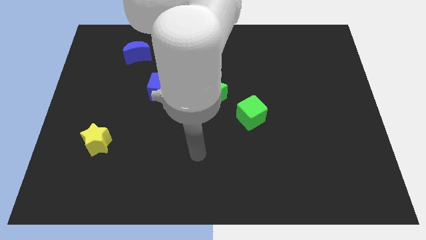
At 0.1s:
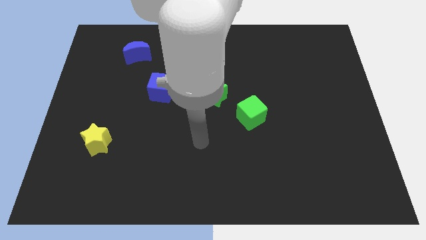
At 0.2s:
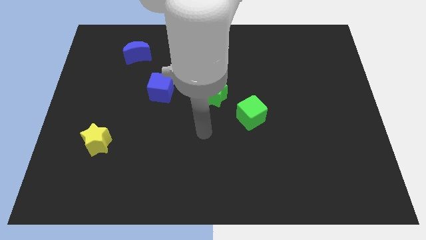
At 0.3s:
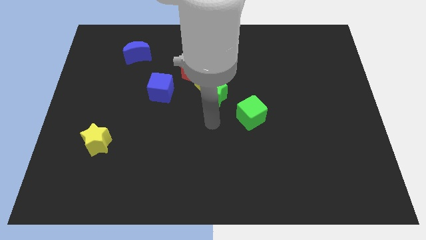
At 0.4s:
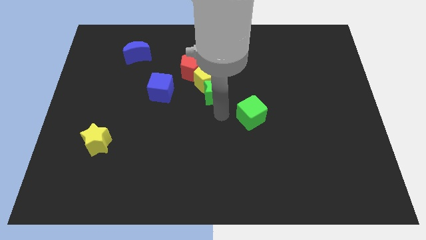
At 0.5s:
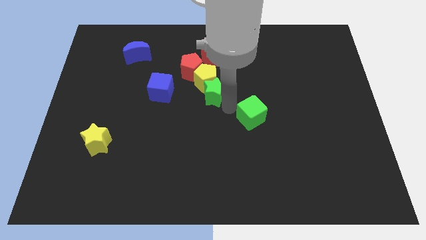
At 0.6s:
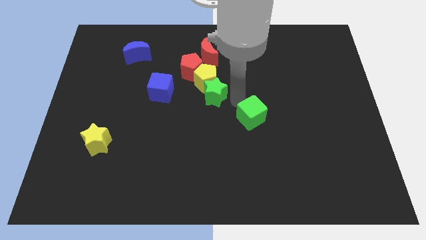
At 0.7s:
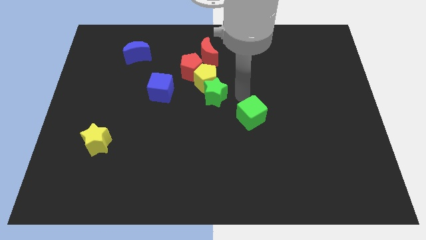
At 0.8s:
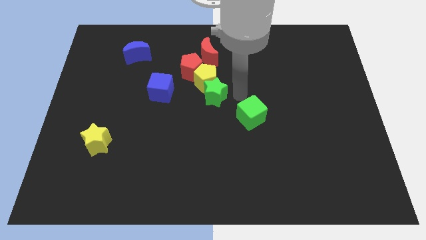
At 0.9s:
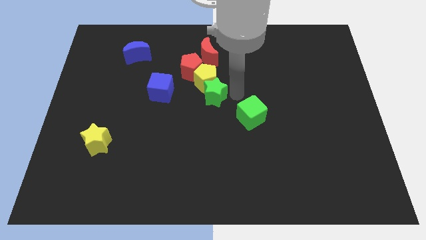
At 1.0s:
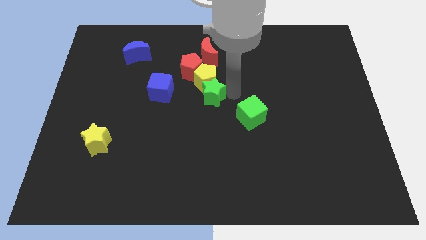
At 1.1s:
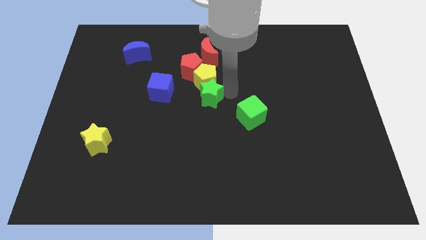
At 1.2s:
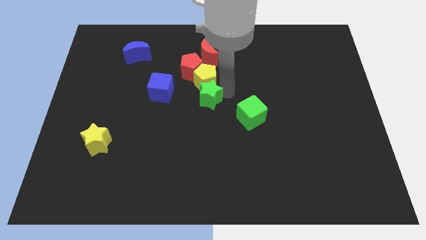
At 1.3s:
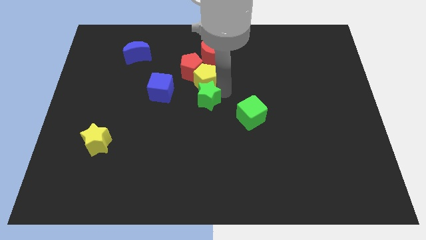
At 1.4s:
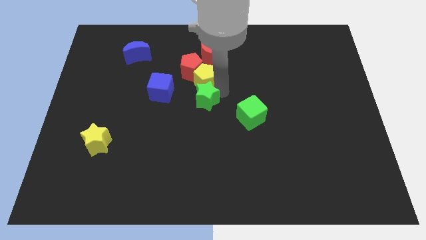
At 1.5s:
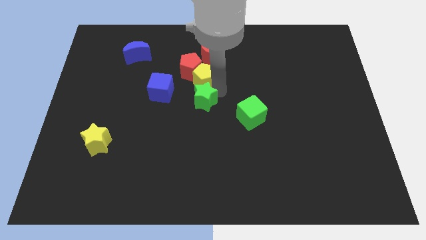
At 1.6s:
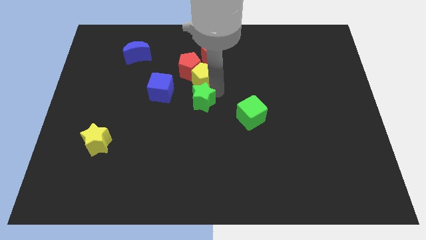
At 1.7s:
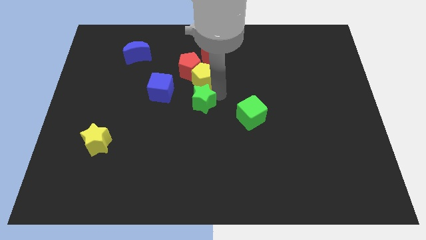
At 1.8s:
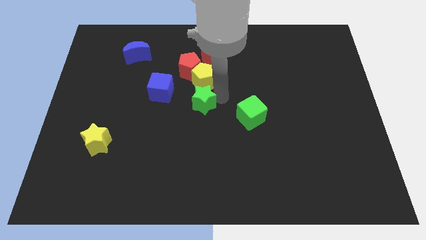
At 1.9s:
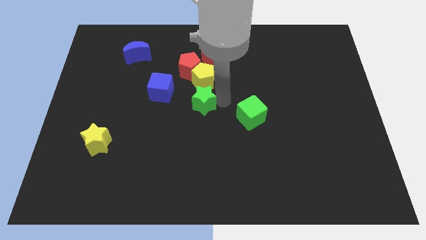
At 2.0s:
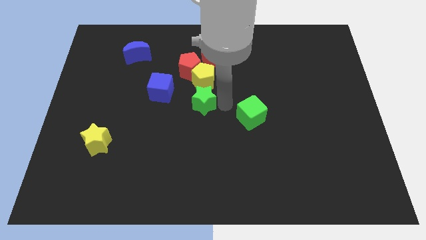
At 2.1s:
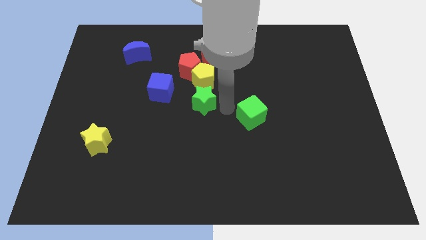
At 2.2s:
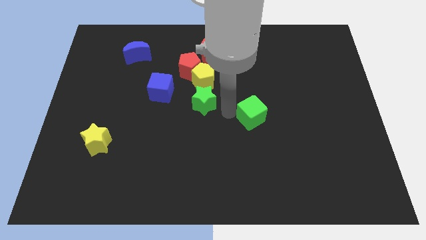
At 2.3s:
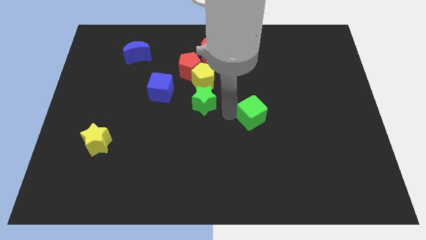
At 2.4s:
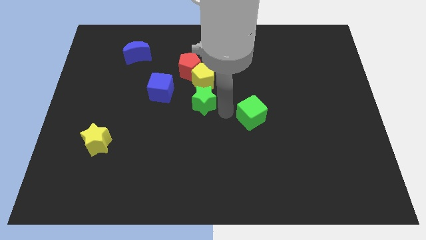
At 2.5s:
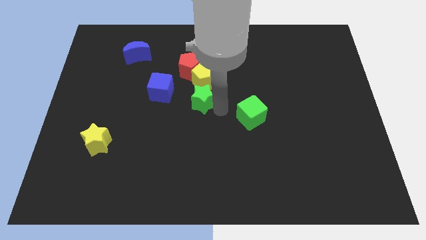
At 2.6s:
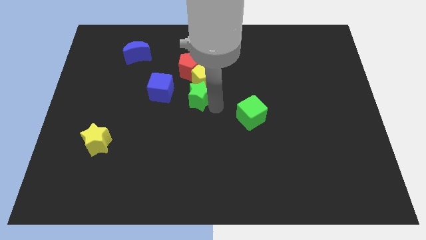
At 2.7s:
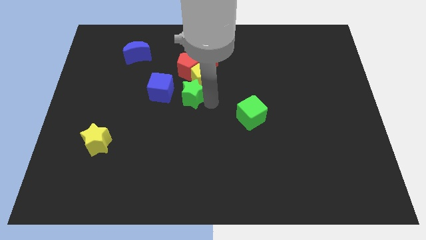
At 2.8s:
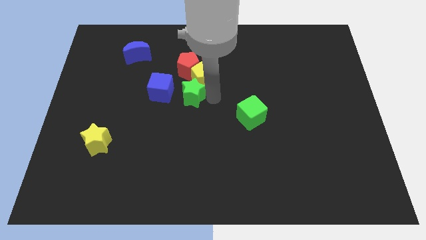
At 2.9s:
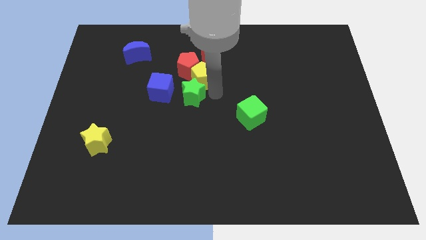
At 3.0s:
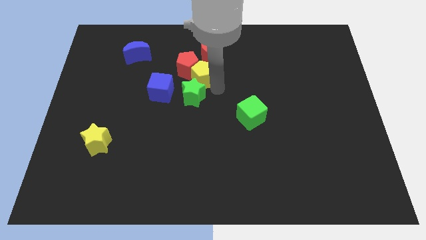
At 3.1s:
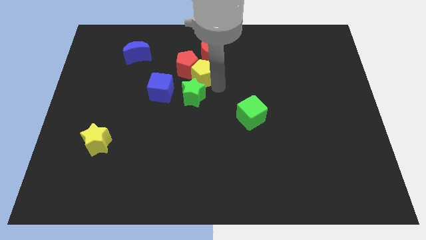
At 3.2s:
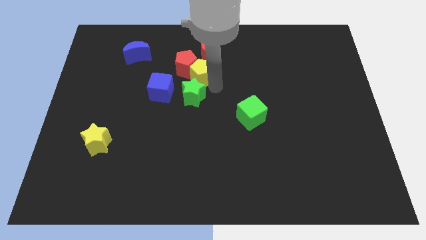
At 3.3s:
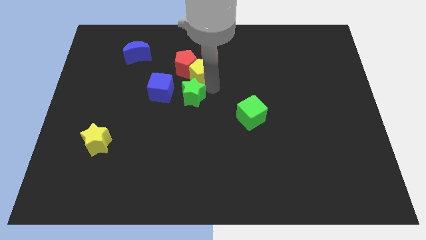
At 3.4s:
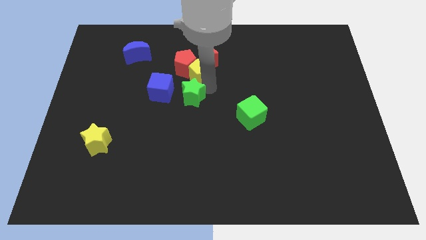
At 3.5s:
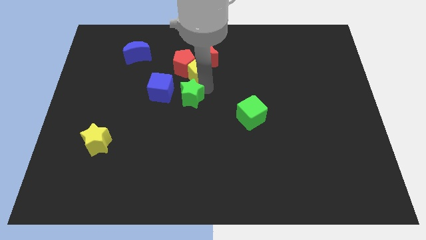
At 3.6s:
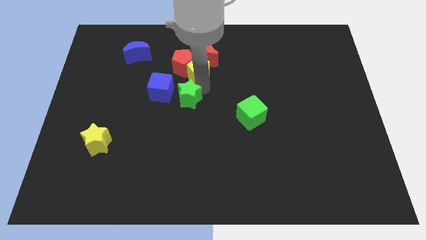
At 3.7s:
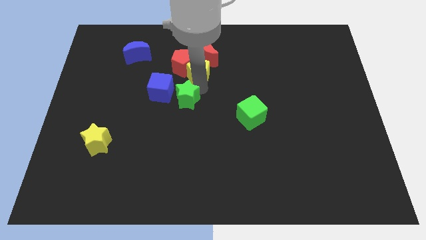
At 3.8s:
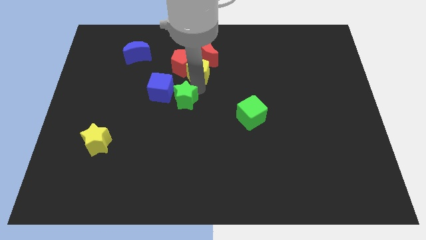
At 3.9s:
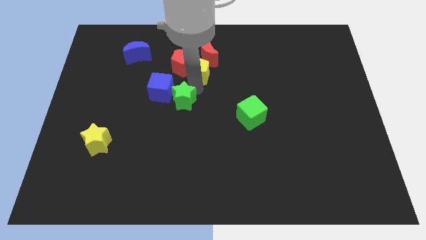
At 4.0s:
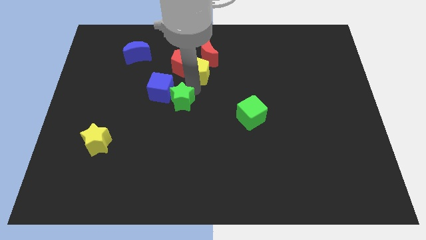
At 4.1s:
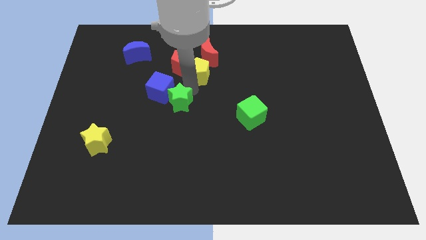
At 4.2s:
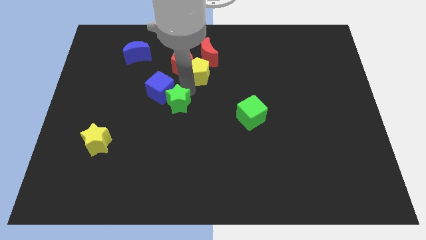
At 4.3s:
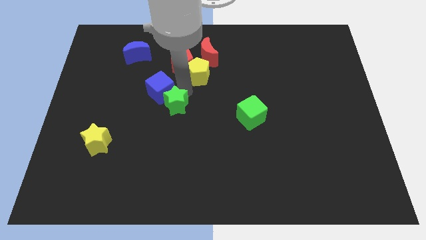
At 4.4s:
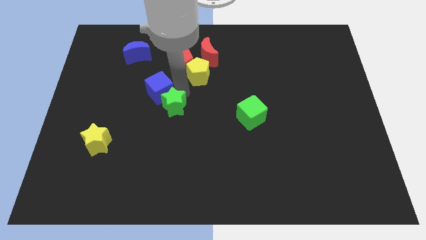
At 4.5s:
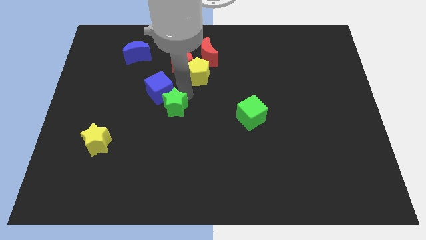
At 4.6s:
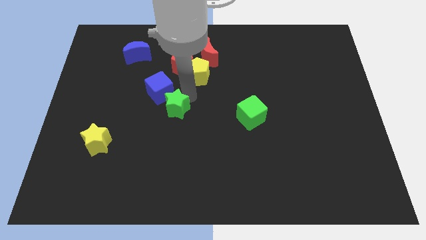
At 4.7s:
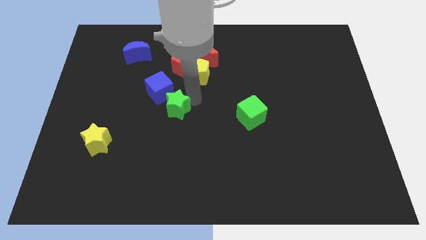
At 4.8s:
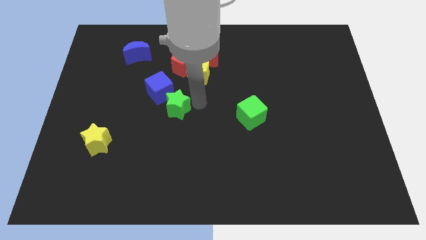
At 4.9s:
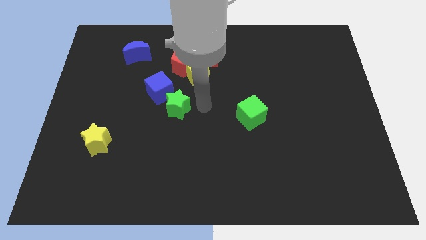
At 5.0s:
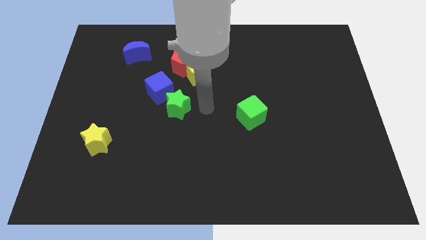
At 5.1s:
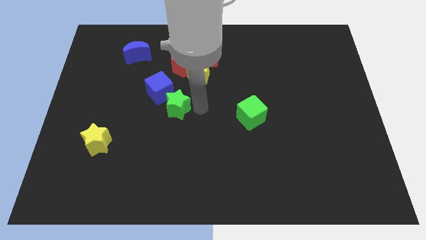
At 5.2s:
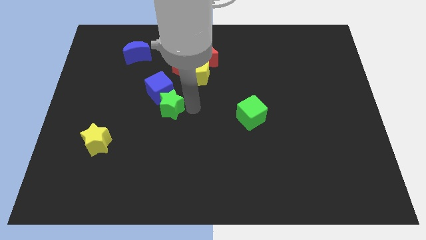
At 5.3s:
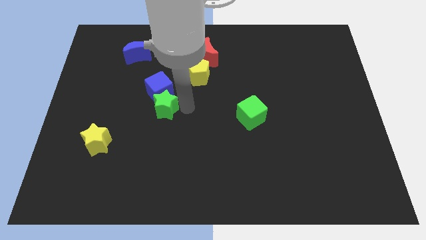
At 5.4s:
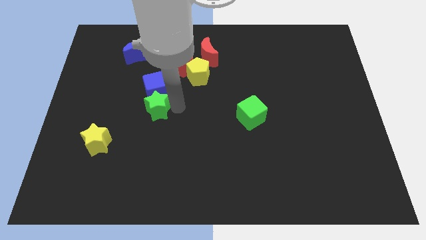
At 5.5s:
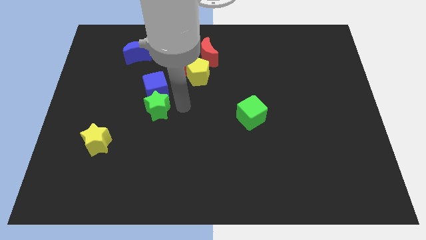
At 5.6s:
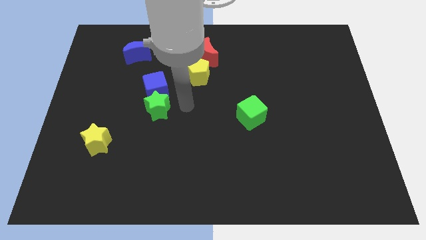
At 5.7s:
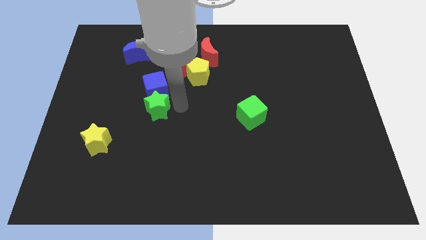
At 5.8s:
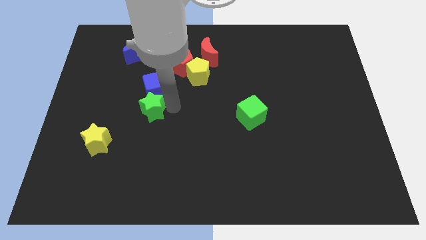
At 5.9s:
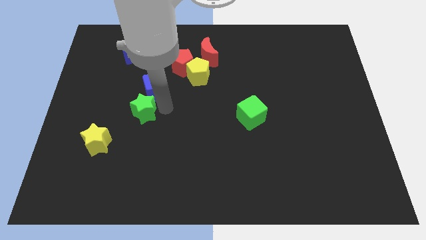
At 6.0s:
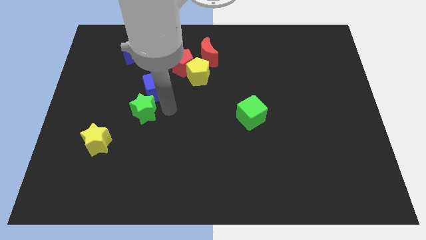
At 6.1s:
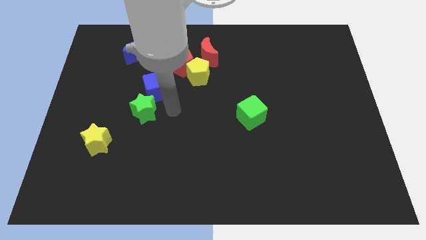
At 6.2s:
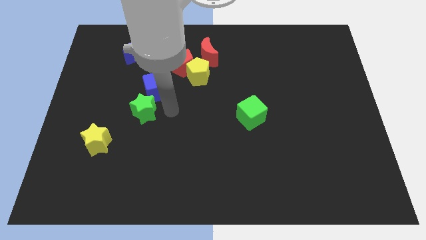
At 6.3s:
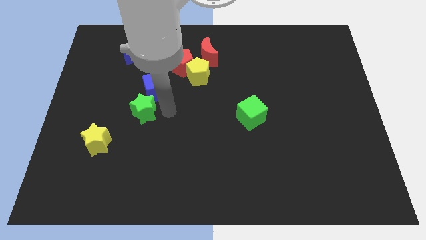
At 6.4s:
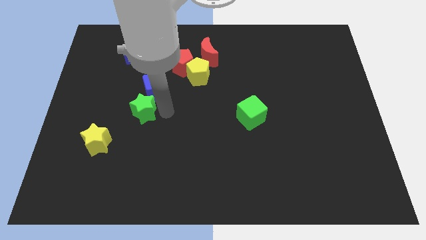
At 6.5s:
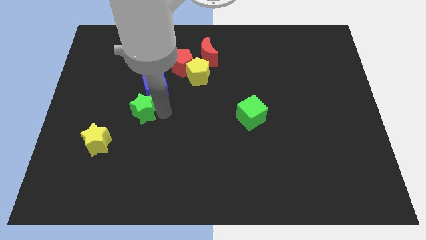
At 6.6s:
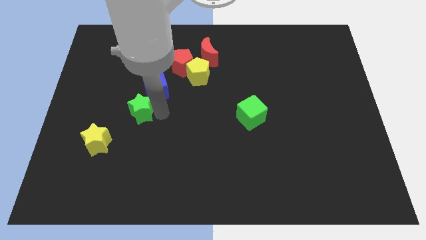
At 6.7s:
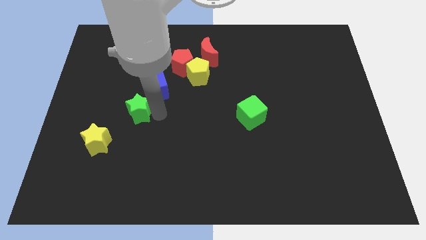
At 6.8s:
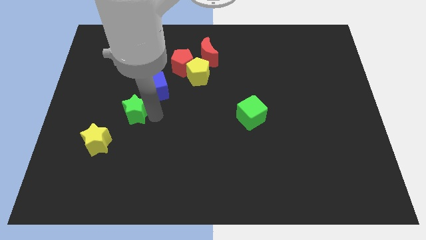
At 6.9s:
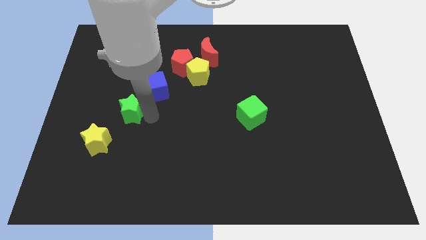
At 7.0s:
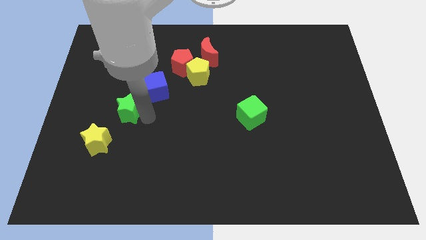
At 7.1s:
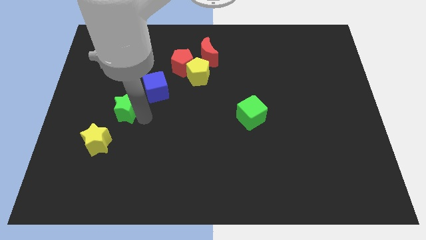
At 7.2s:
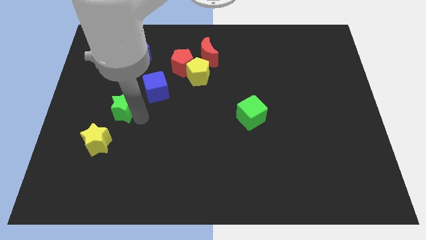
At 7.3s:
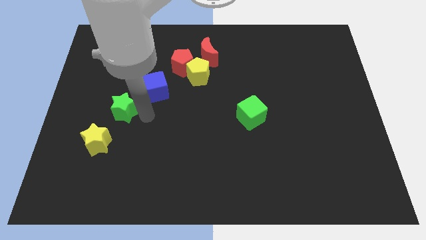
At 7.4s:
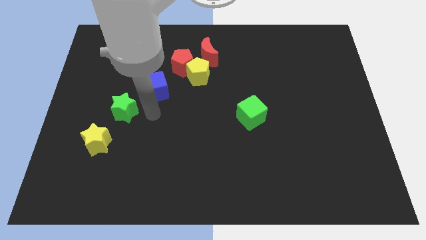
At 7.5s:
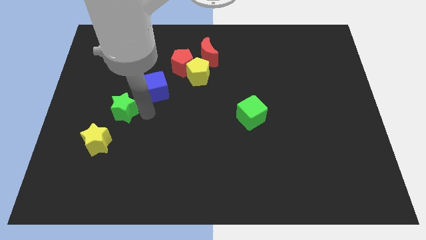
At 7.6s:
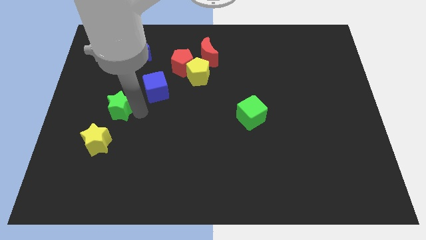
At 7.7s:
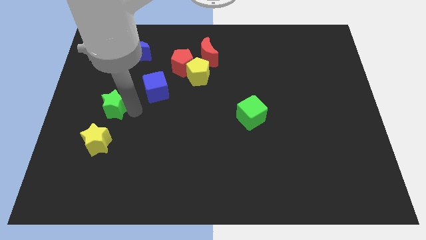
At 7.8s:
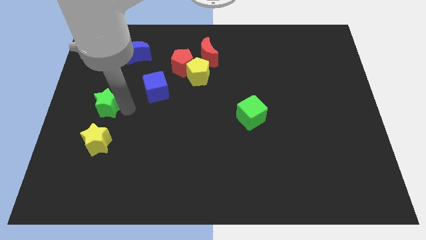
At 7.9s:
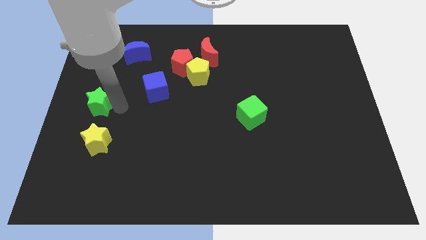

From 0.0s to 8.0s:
put the green star to the left side of the board
